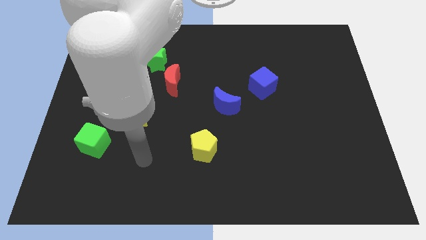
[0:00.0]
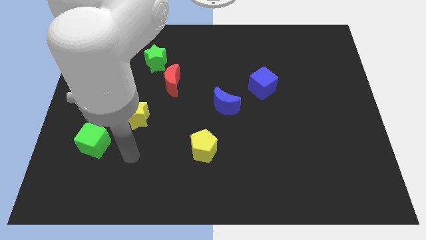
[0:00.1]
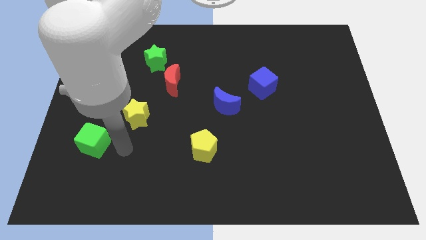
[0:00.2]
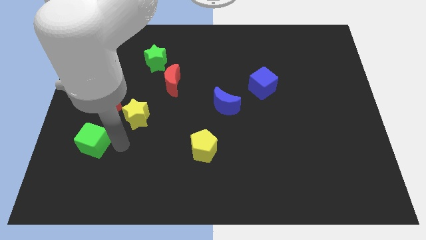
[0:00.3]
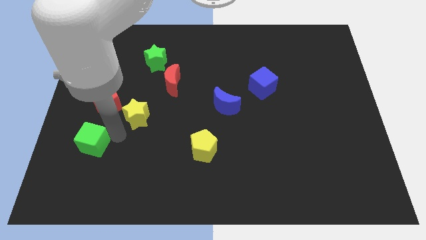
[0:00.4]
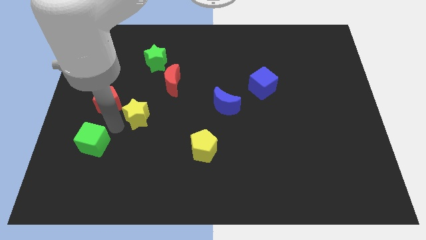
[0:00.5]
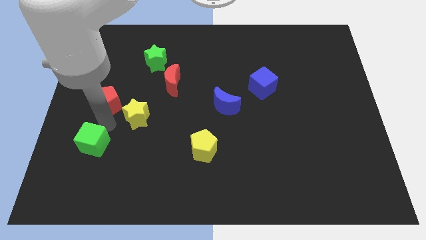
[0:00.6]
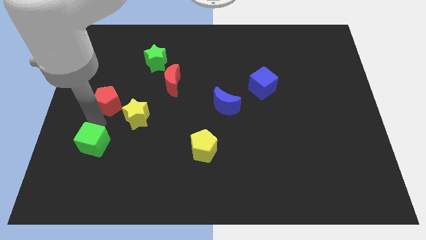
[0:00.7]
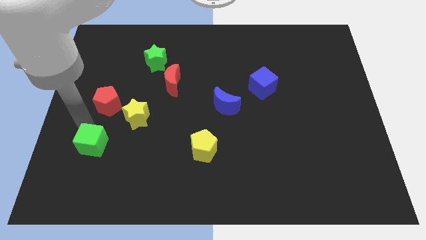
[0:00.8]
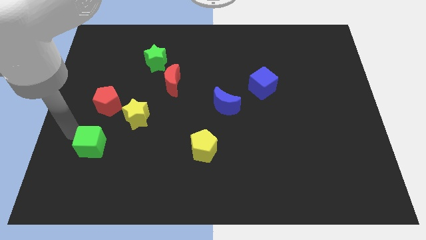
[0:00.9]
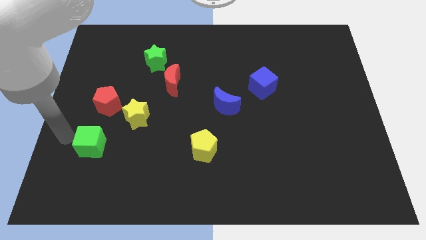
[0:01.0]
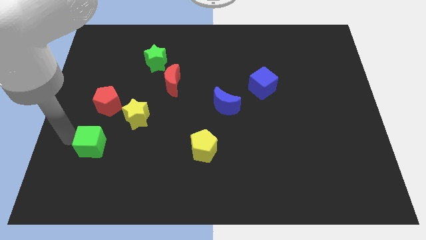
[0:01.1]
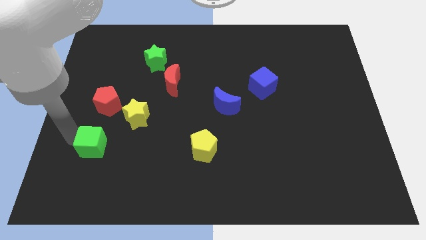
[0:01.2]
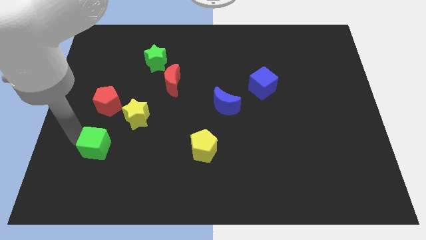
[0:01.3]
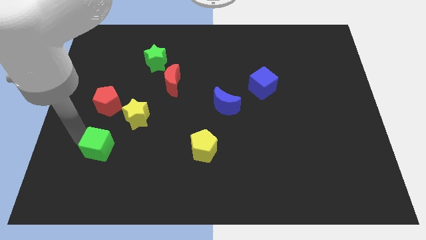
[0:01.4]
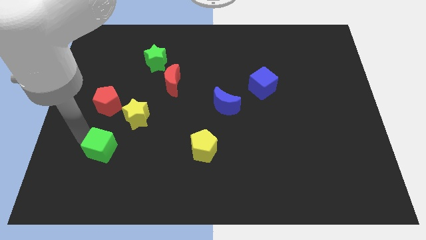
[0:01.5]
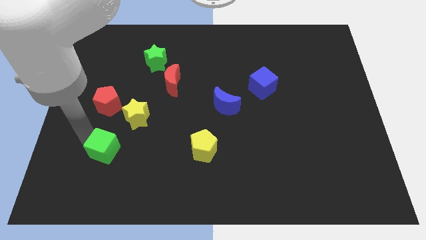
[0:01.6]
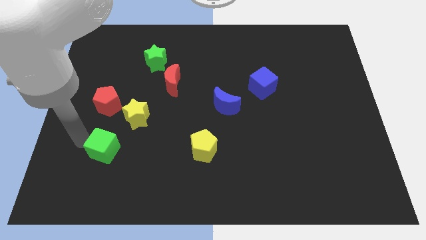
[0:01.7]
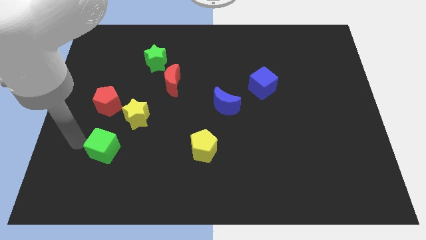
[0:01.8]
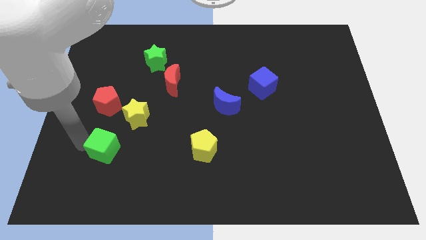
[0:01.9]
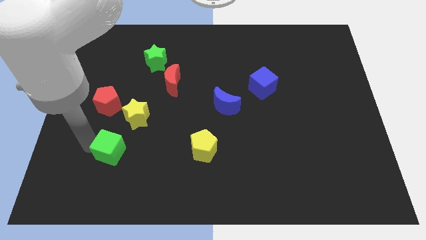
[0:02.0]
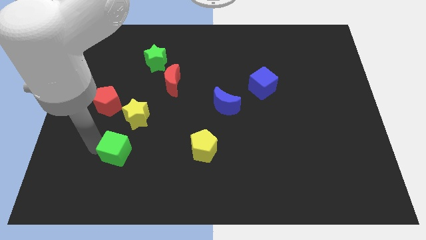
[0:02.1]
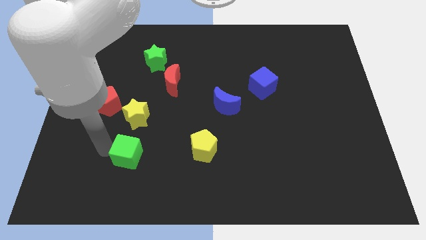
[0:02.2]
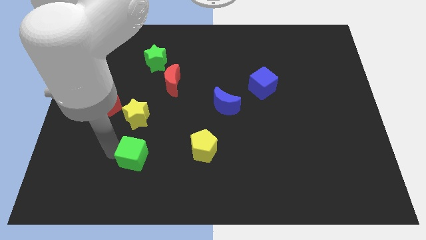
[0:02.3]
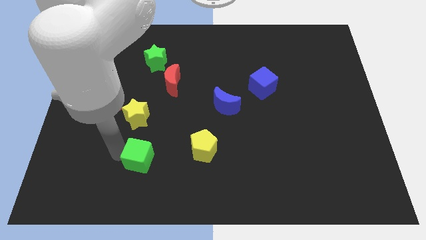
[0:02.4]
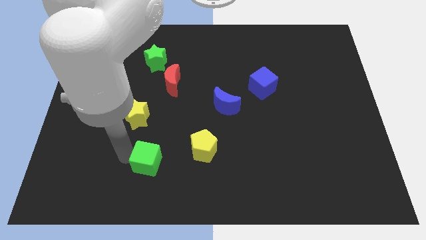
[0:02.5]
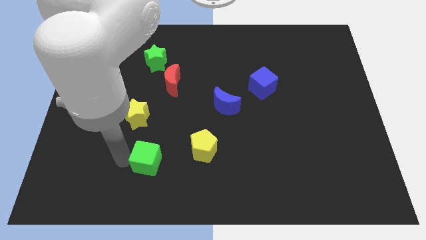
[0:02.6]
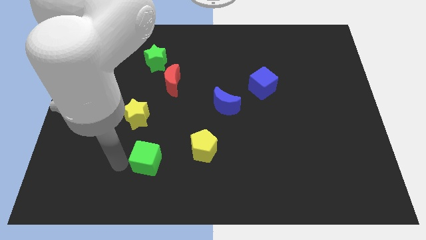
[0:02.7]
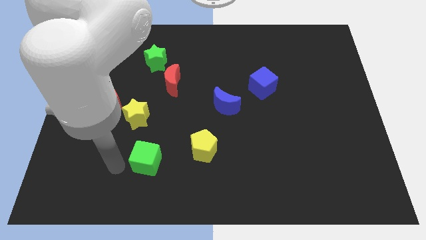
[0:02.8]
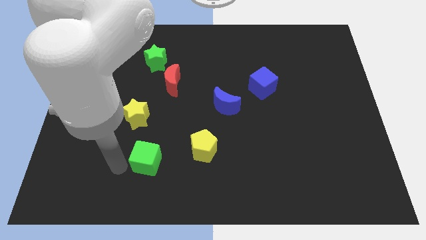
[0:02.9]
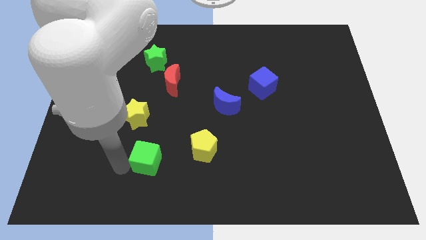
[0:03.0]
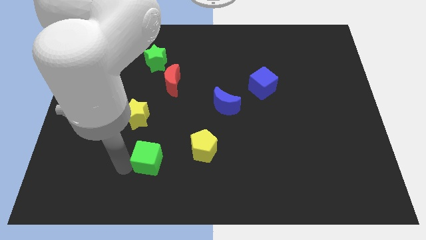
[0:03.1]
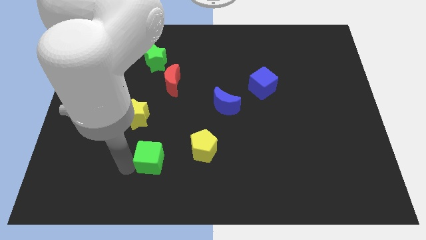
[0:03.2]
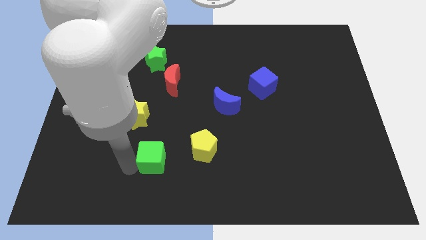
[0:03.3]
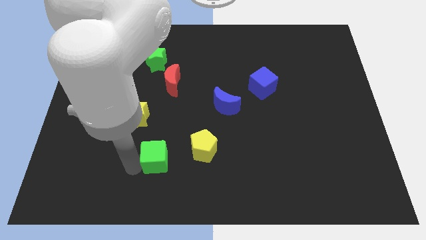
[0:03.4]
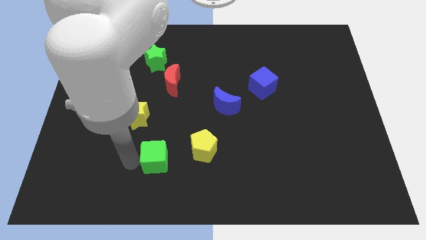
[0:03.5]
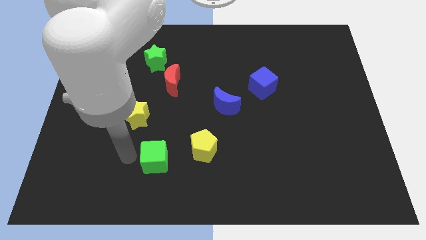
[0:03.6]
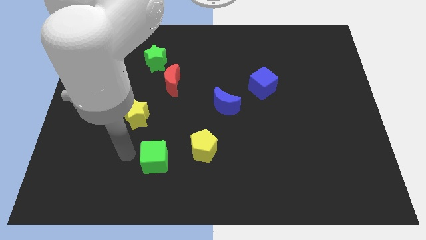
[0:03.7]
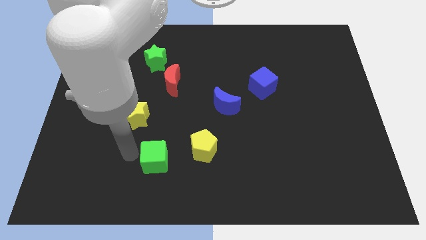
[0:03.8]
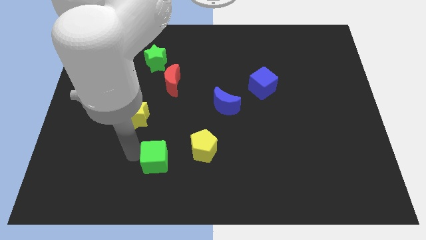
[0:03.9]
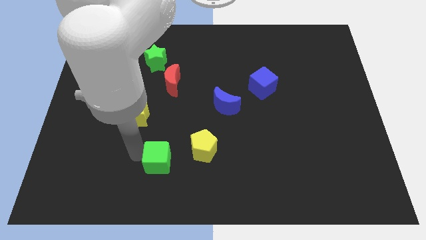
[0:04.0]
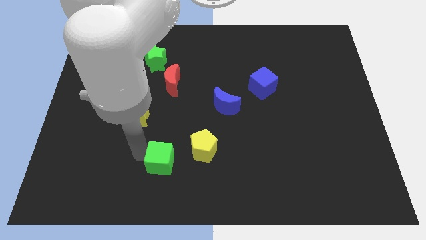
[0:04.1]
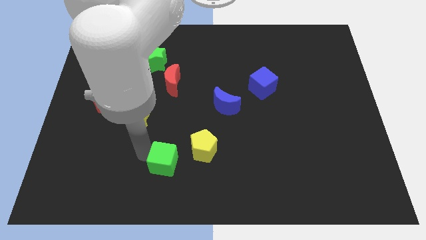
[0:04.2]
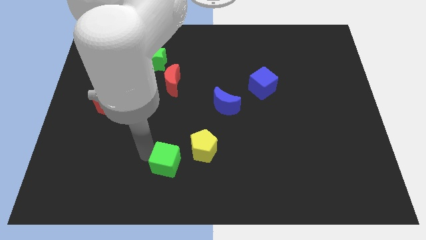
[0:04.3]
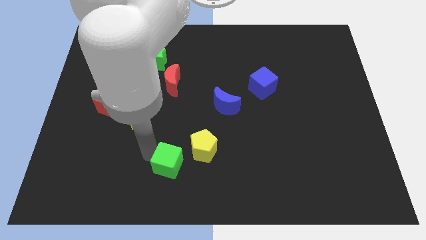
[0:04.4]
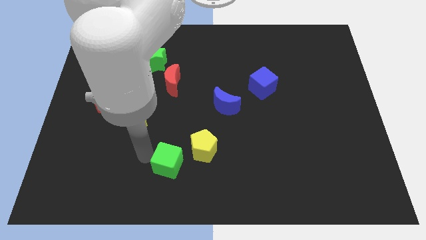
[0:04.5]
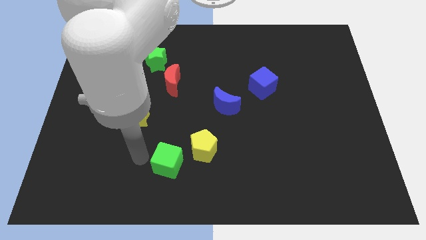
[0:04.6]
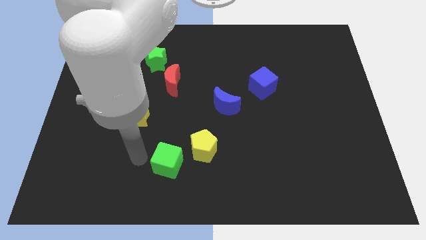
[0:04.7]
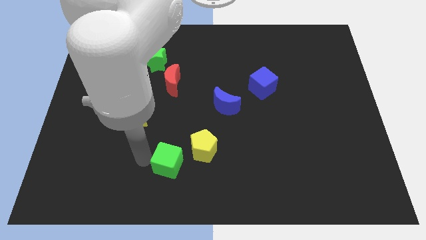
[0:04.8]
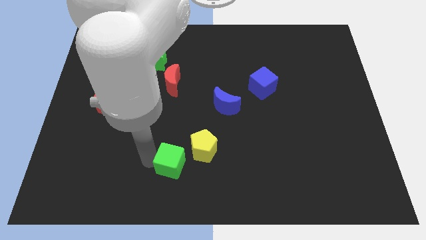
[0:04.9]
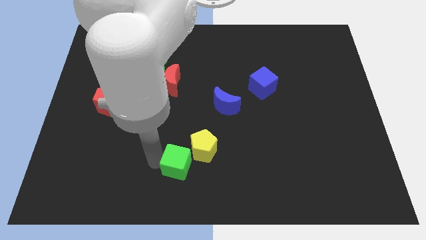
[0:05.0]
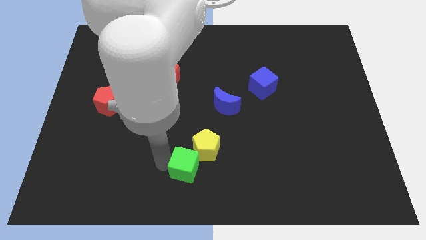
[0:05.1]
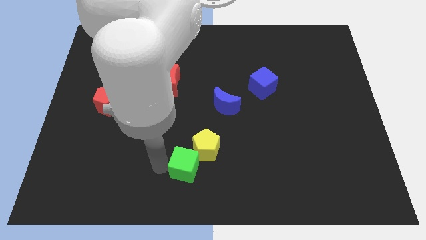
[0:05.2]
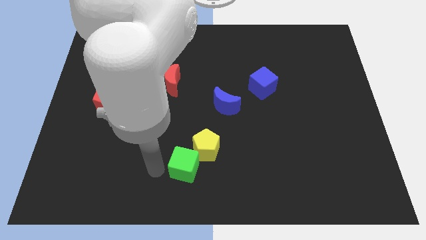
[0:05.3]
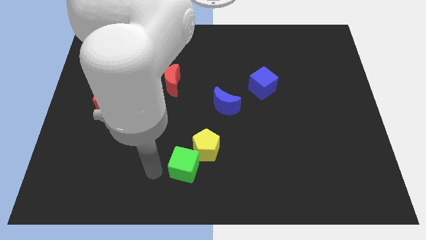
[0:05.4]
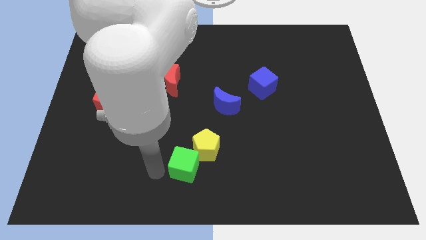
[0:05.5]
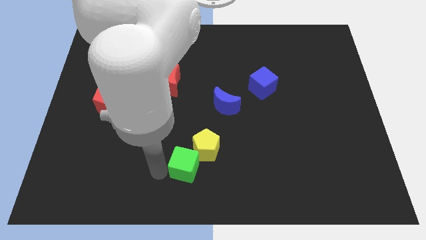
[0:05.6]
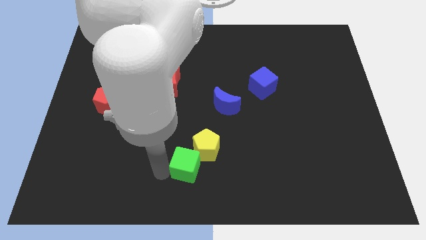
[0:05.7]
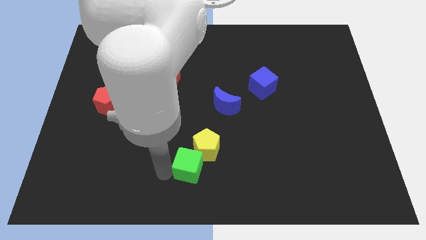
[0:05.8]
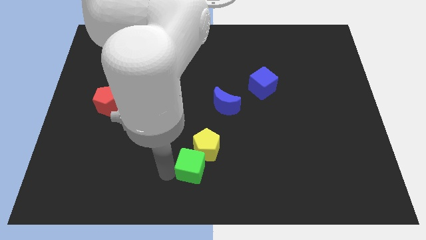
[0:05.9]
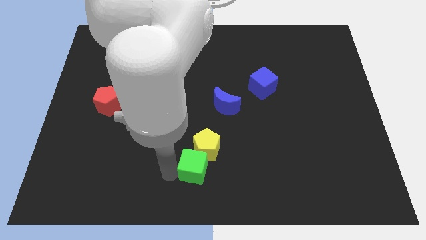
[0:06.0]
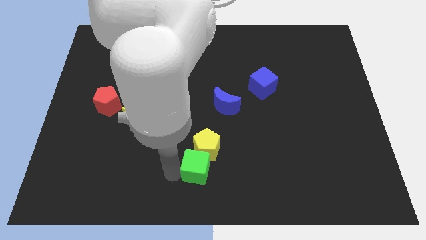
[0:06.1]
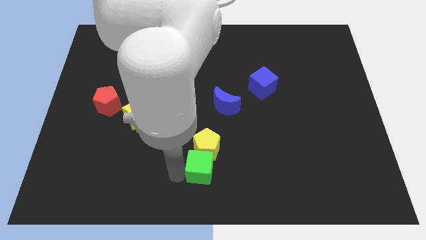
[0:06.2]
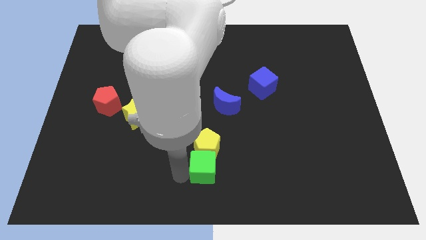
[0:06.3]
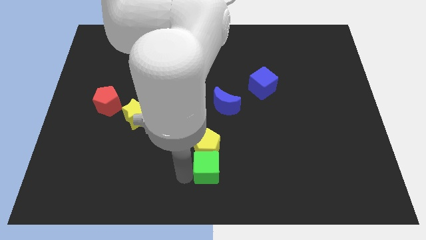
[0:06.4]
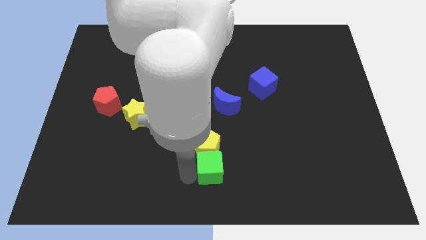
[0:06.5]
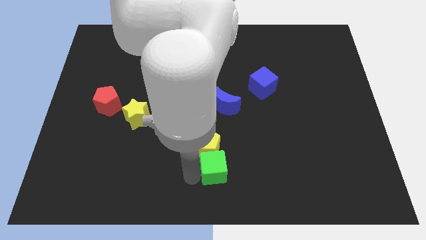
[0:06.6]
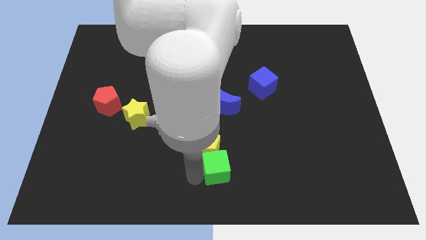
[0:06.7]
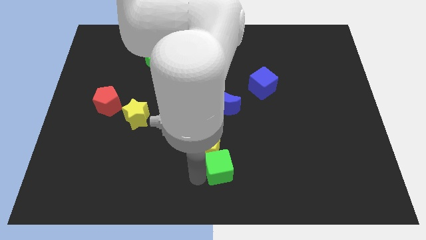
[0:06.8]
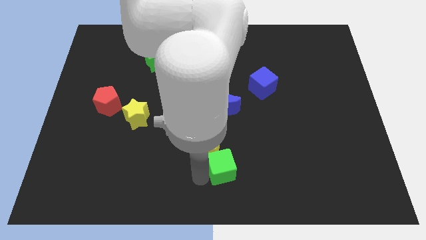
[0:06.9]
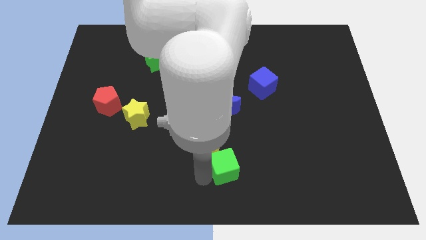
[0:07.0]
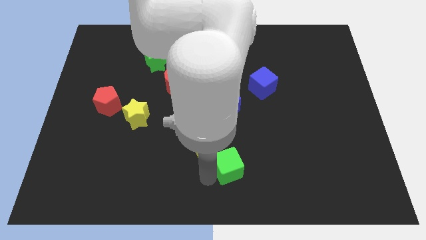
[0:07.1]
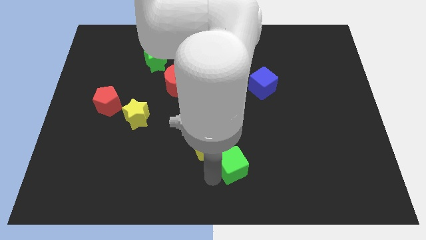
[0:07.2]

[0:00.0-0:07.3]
put the green cube just right of the yellow pentagon
